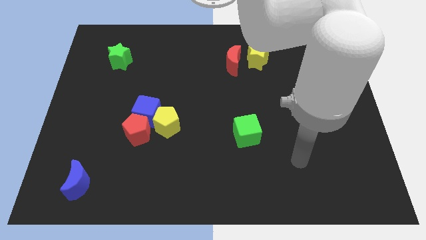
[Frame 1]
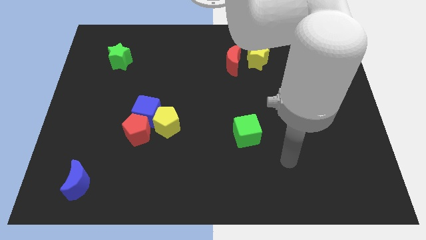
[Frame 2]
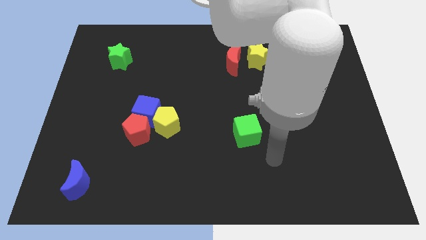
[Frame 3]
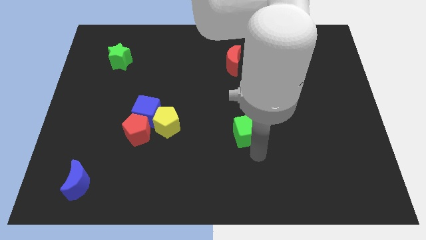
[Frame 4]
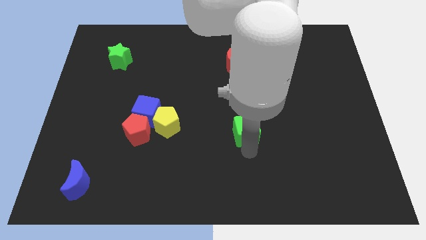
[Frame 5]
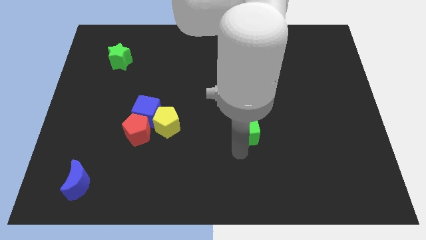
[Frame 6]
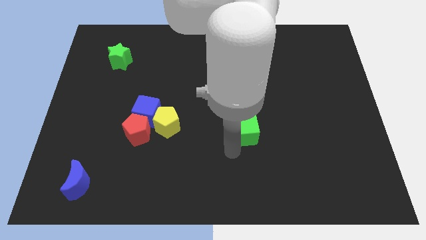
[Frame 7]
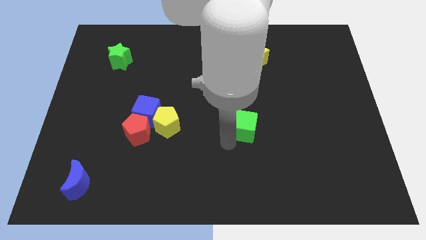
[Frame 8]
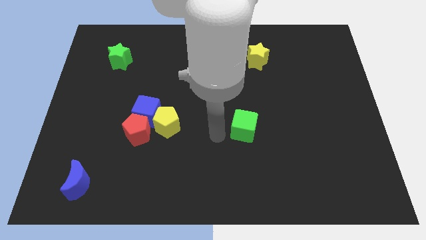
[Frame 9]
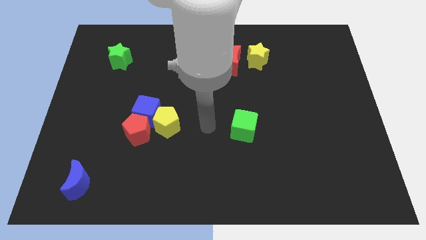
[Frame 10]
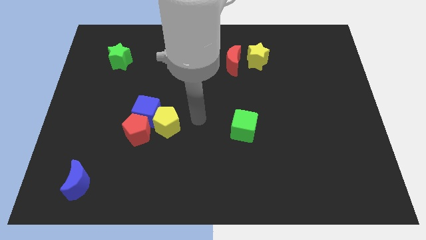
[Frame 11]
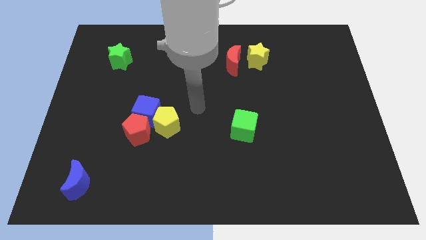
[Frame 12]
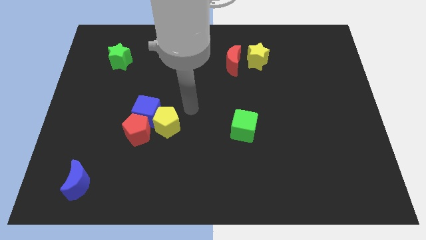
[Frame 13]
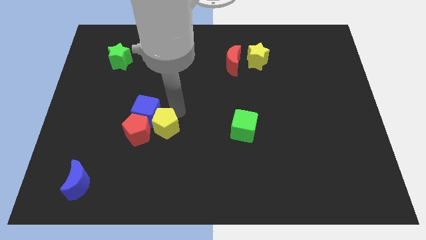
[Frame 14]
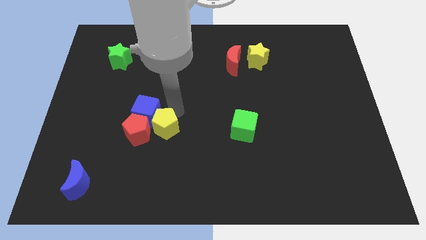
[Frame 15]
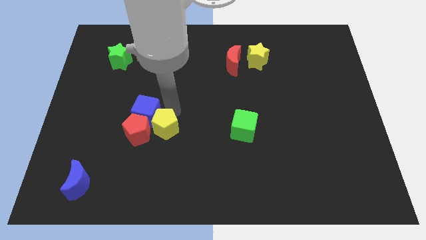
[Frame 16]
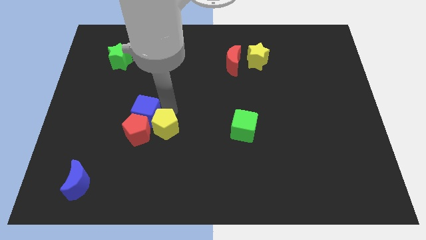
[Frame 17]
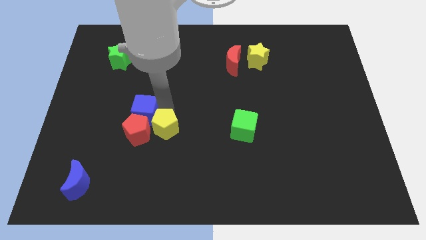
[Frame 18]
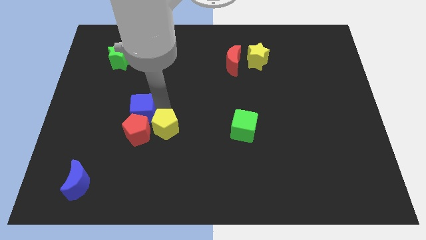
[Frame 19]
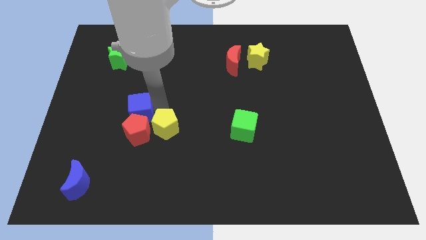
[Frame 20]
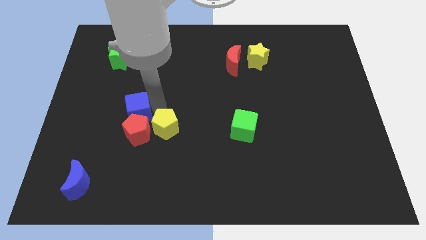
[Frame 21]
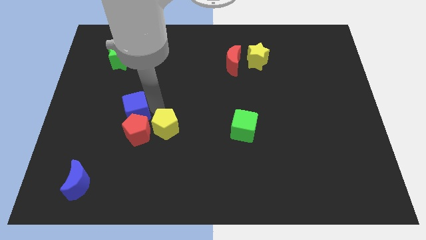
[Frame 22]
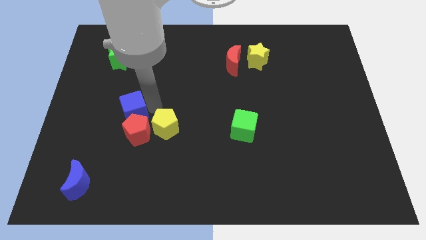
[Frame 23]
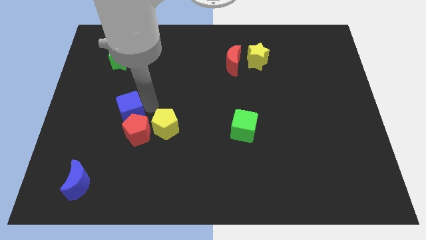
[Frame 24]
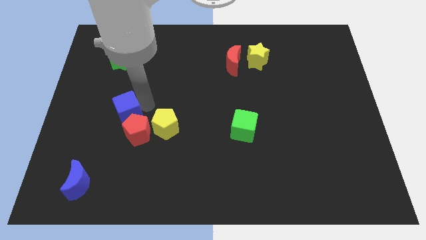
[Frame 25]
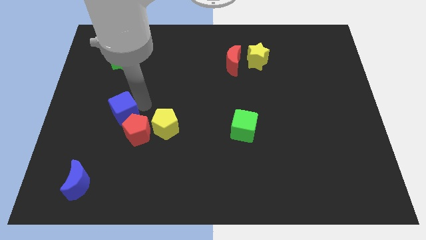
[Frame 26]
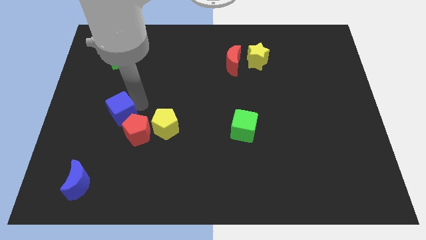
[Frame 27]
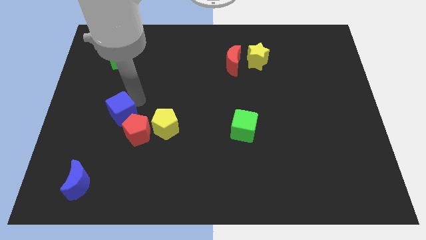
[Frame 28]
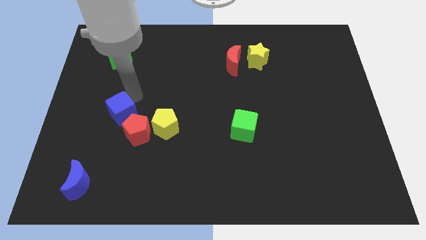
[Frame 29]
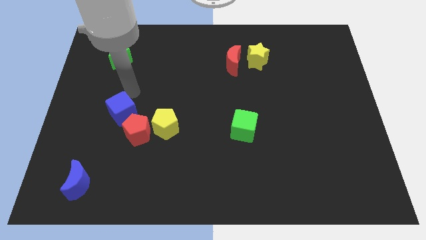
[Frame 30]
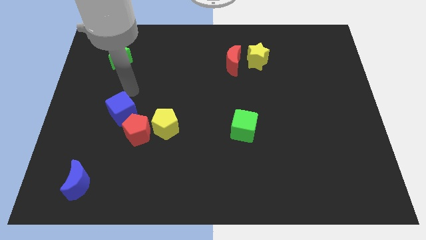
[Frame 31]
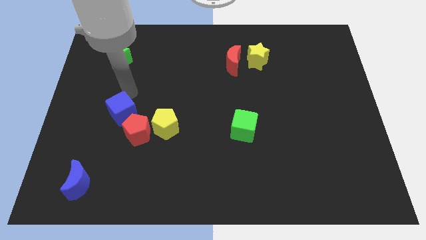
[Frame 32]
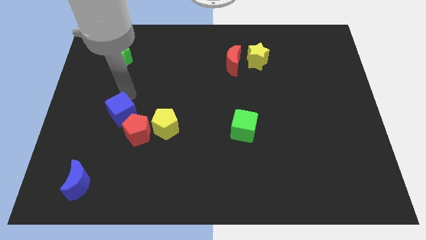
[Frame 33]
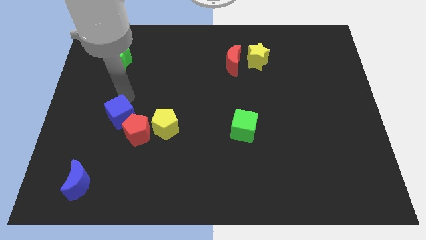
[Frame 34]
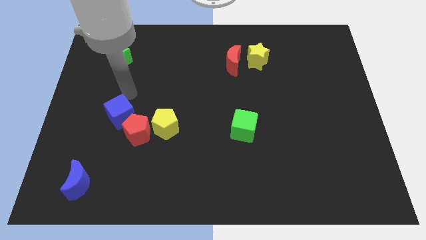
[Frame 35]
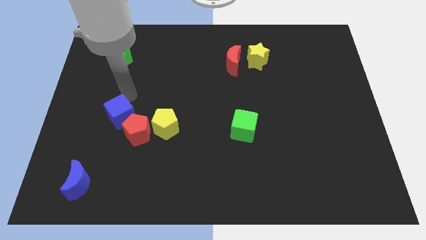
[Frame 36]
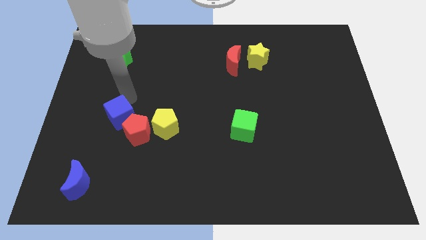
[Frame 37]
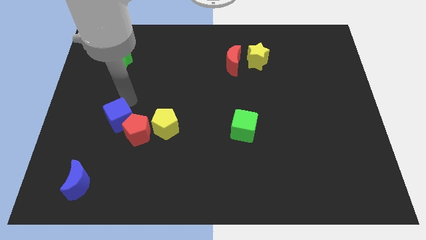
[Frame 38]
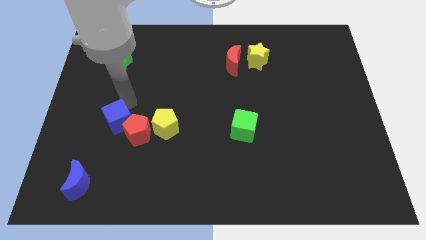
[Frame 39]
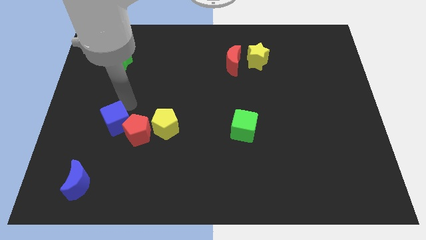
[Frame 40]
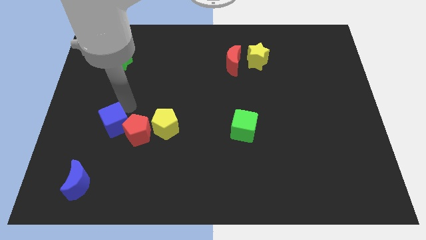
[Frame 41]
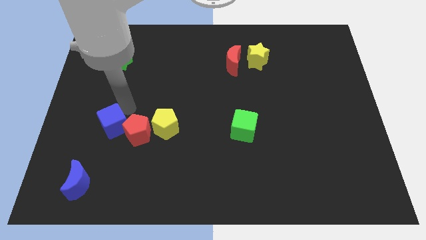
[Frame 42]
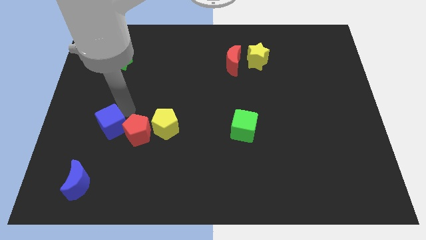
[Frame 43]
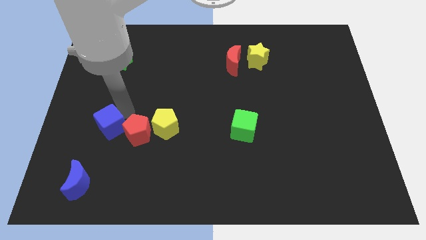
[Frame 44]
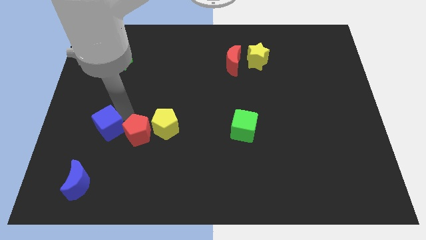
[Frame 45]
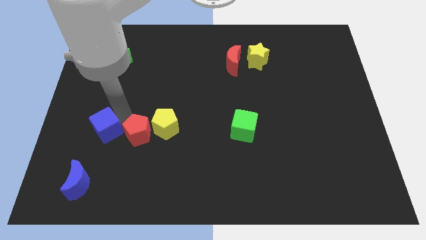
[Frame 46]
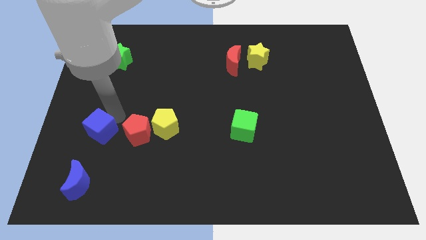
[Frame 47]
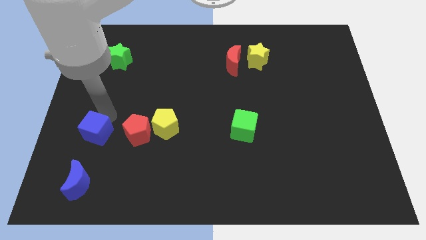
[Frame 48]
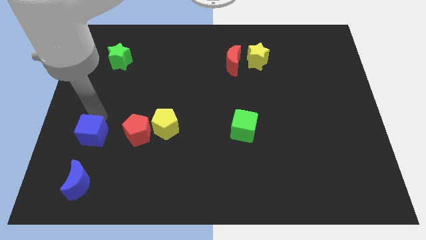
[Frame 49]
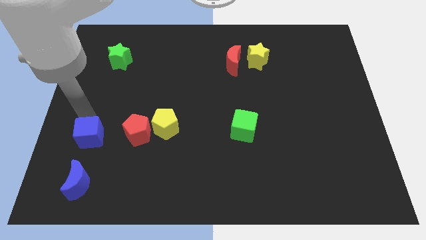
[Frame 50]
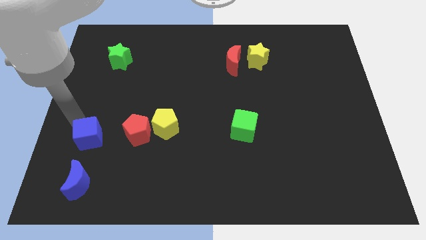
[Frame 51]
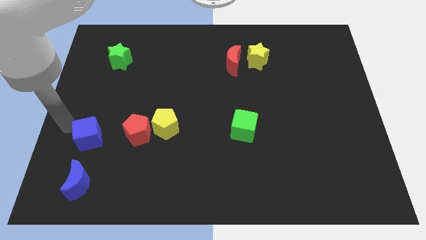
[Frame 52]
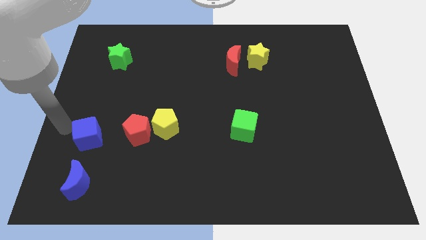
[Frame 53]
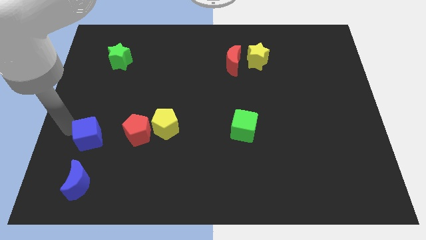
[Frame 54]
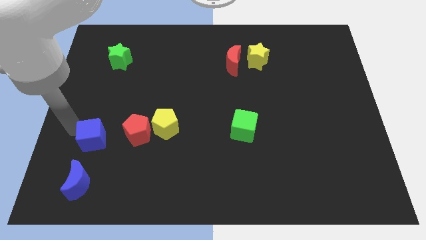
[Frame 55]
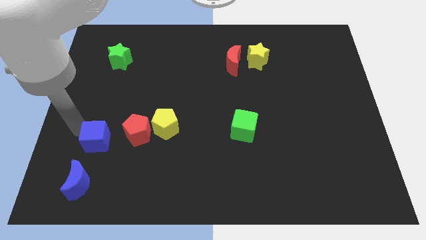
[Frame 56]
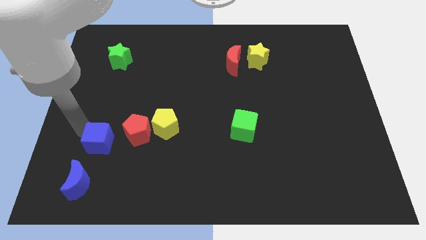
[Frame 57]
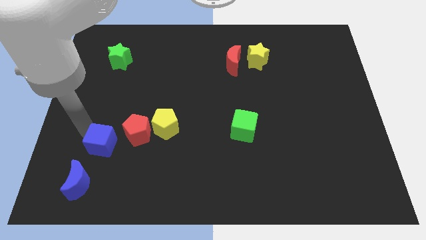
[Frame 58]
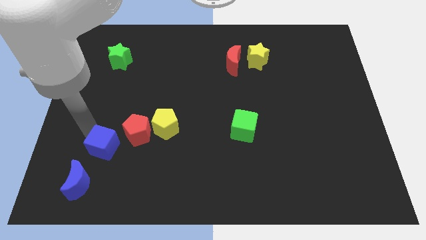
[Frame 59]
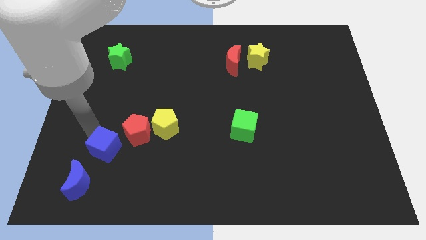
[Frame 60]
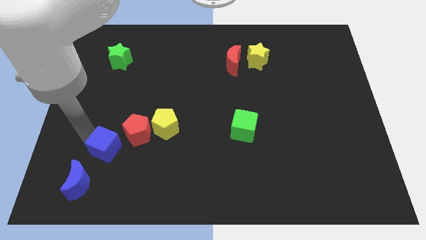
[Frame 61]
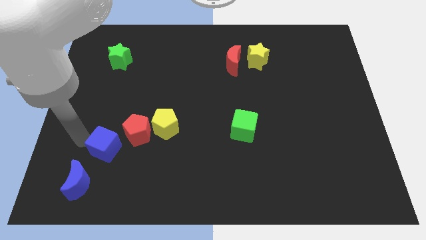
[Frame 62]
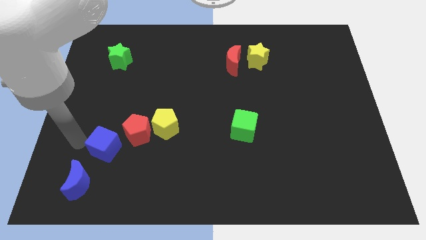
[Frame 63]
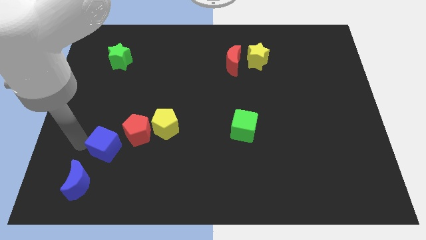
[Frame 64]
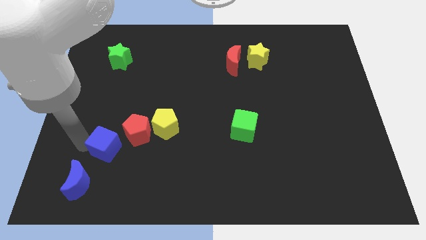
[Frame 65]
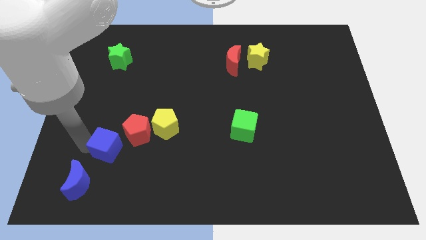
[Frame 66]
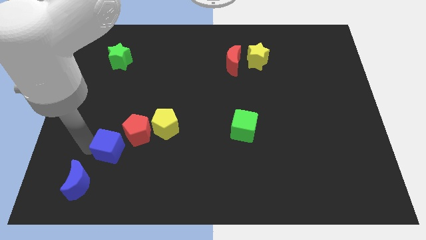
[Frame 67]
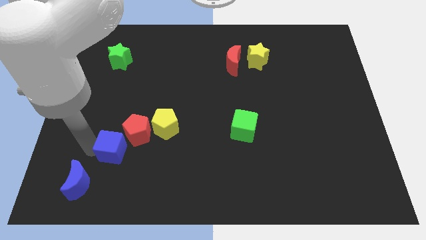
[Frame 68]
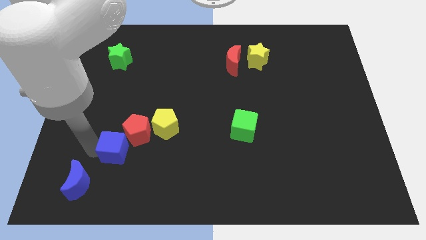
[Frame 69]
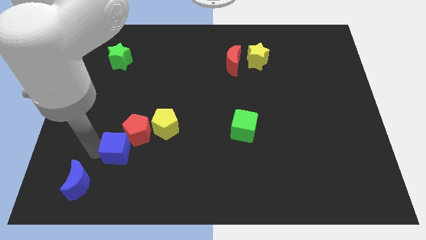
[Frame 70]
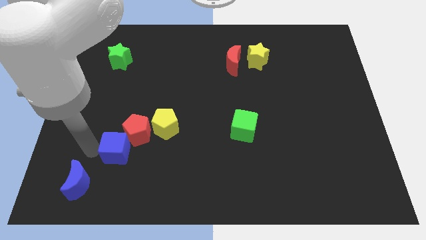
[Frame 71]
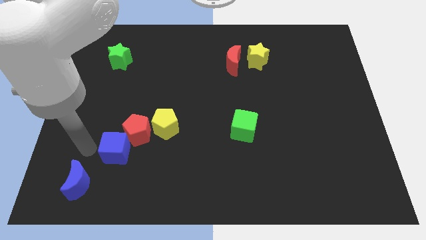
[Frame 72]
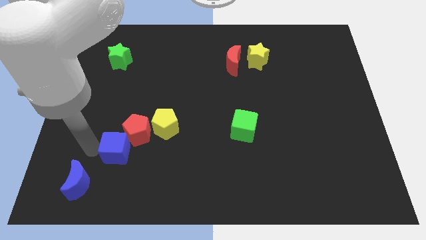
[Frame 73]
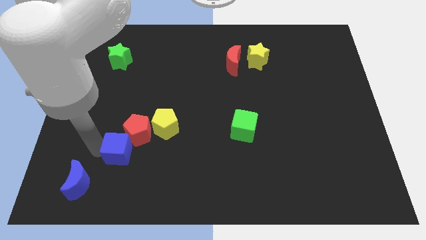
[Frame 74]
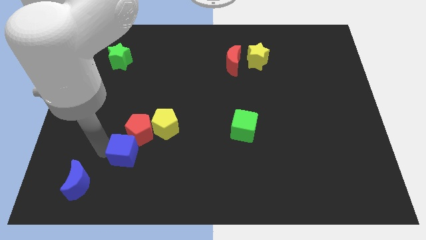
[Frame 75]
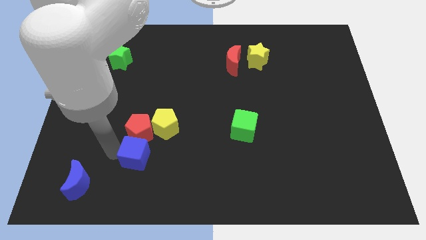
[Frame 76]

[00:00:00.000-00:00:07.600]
push the blue cube diagonally down and to the right of the red pentagon
